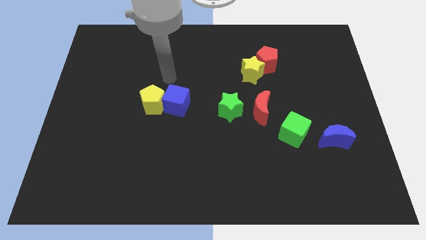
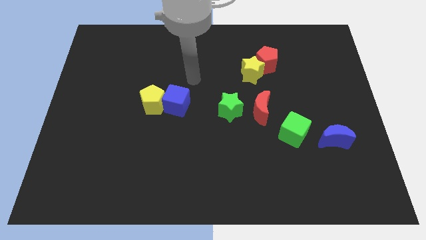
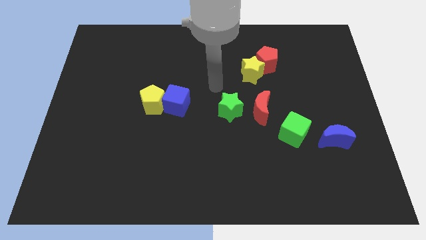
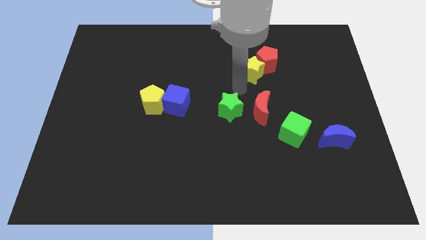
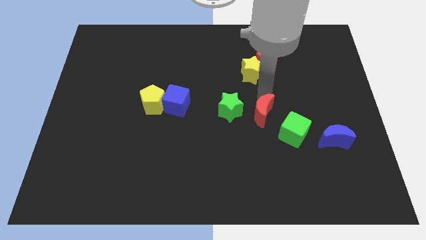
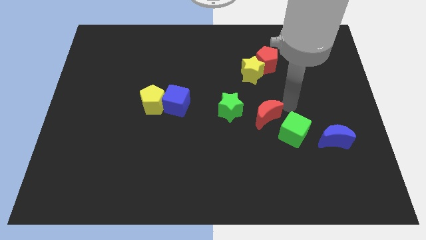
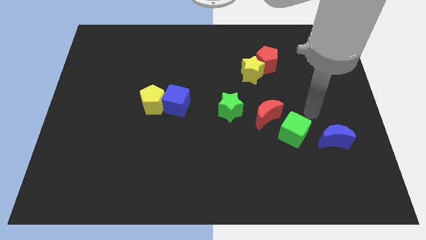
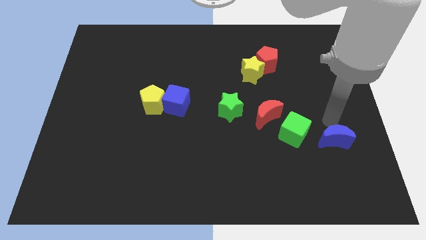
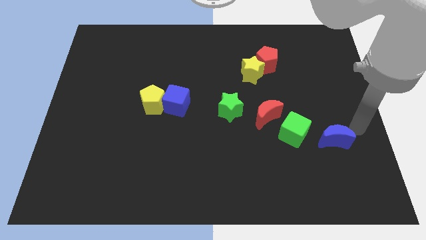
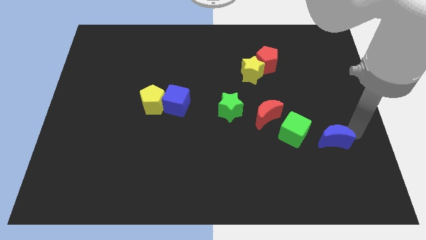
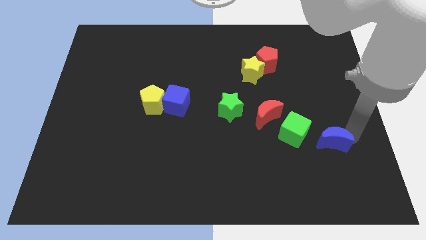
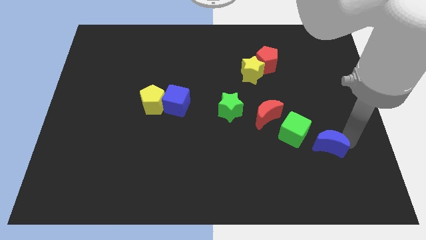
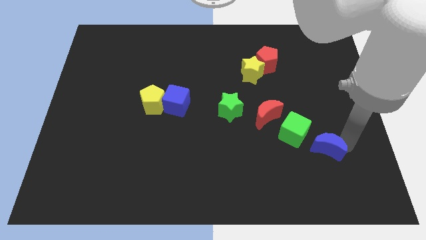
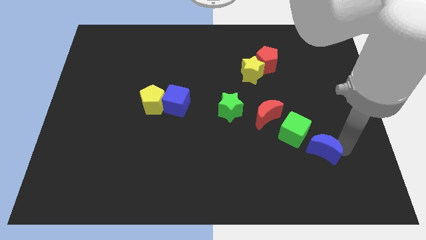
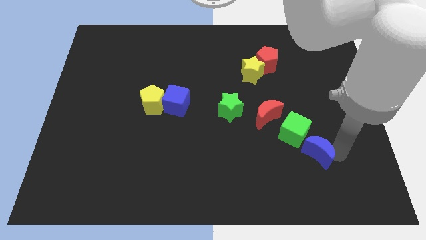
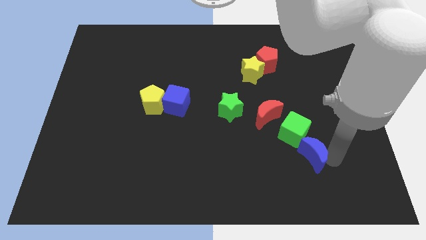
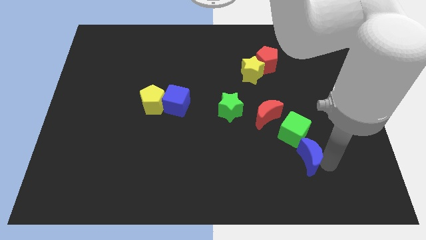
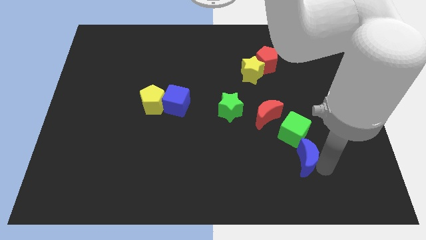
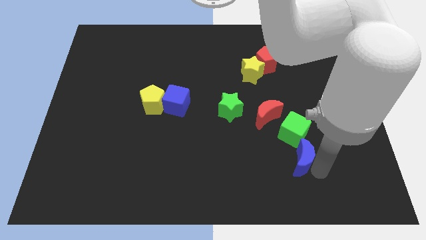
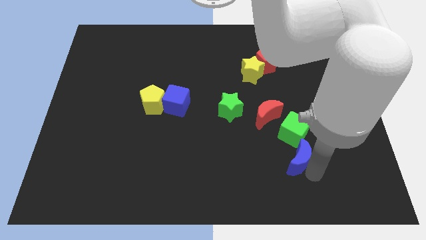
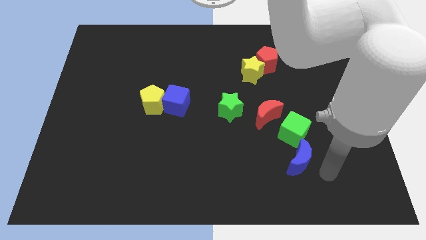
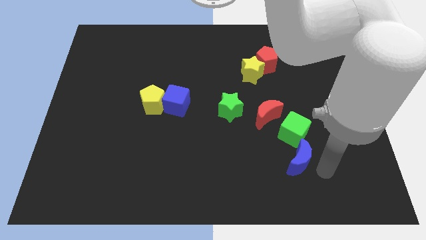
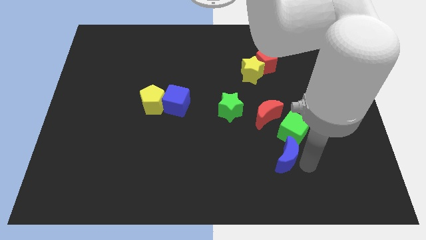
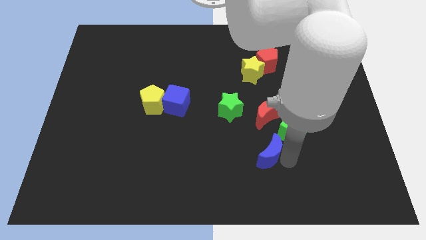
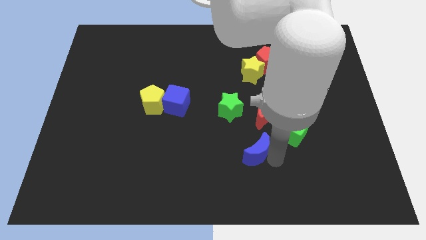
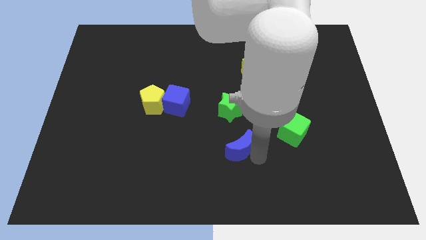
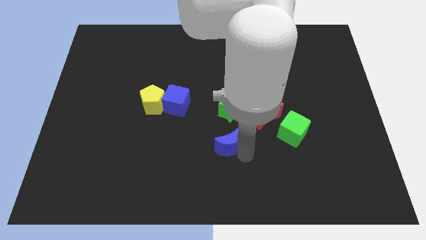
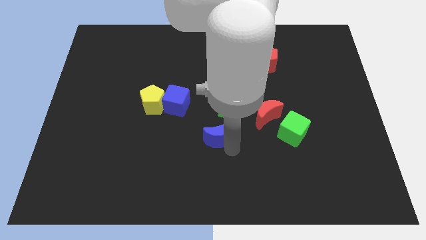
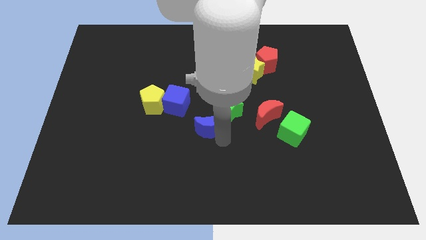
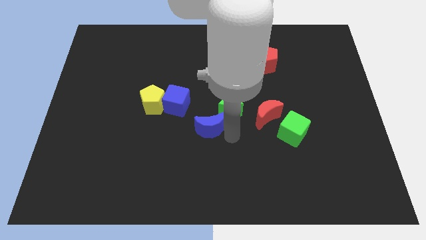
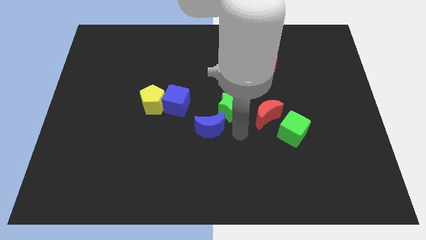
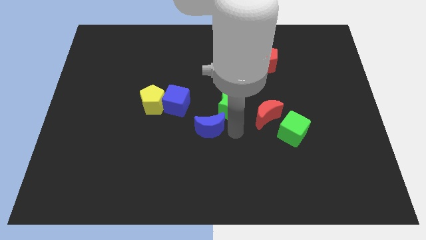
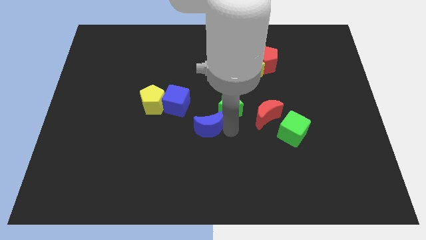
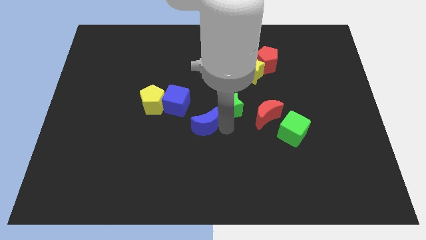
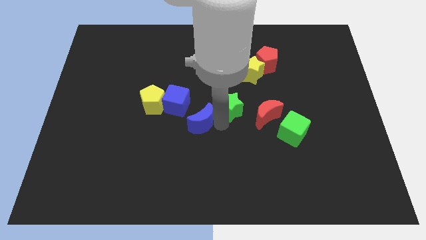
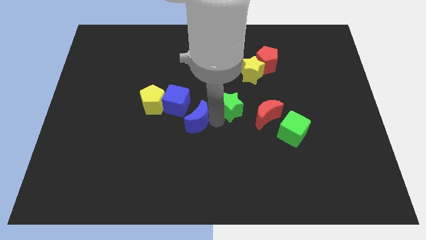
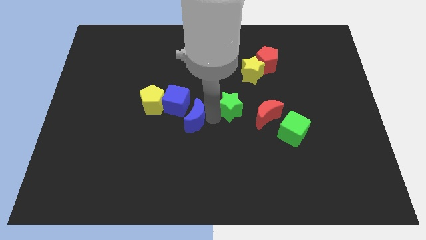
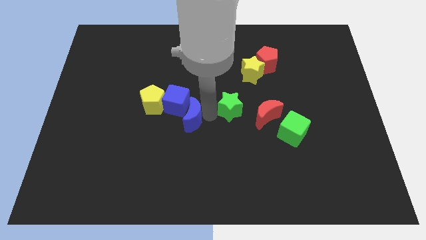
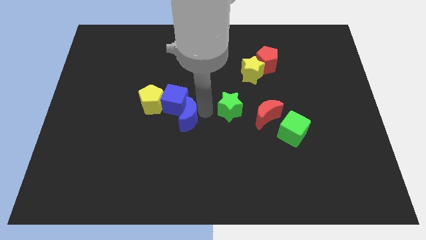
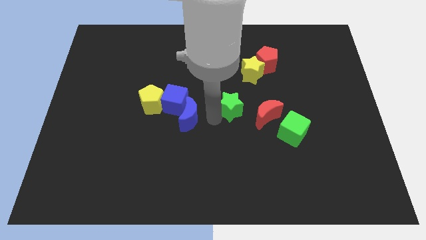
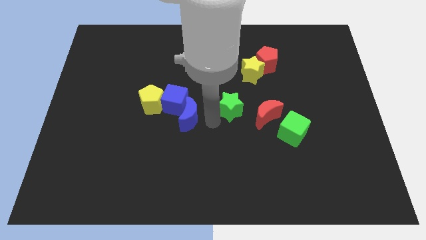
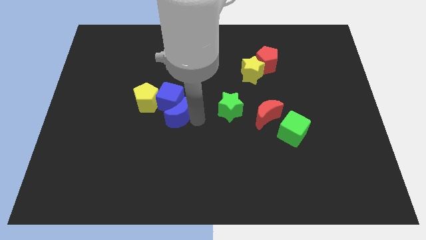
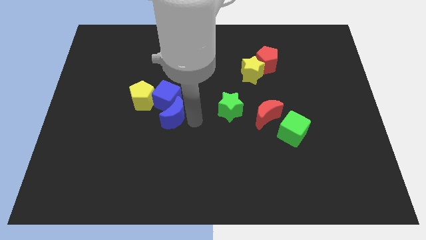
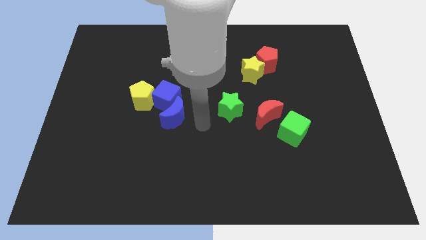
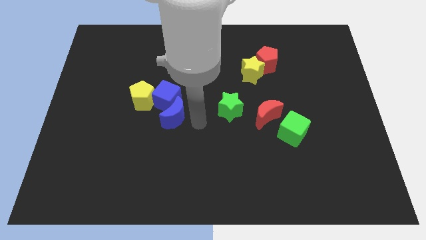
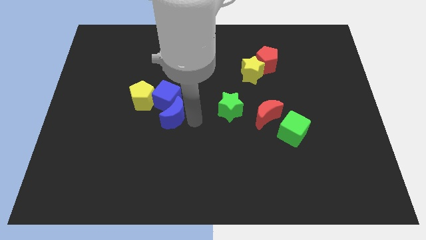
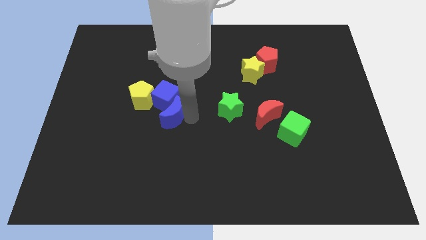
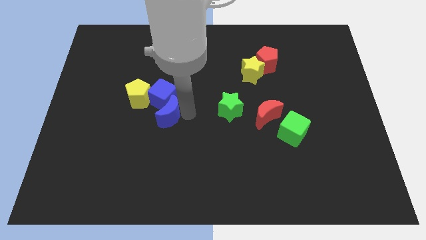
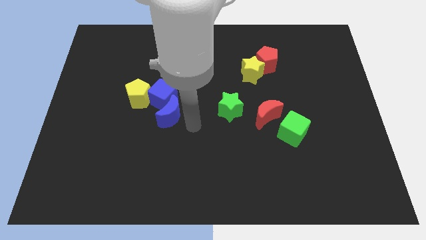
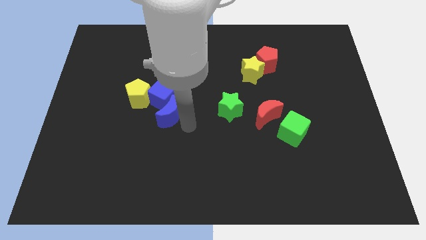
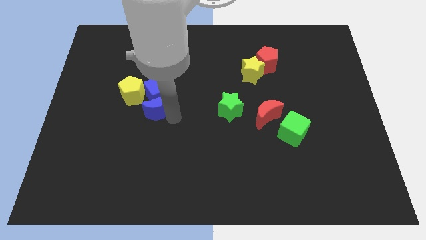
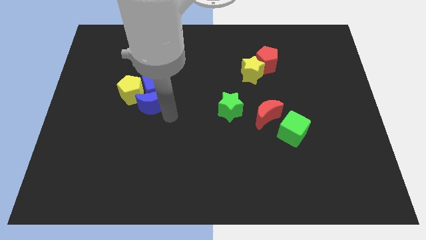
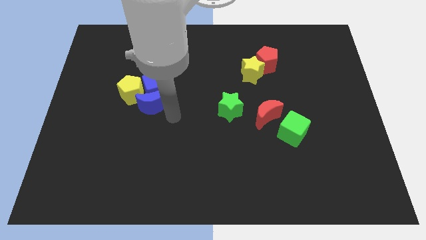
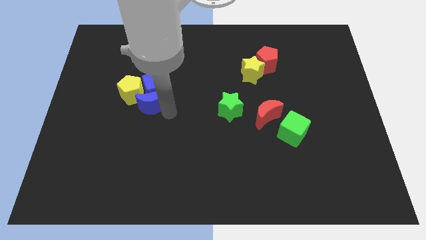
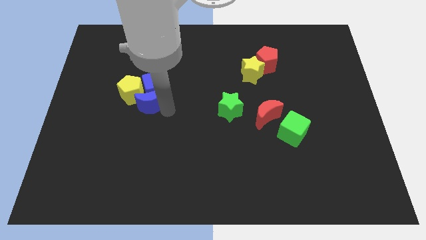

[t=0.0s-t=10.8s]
put the blue moon towards the yellow pentagon

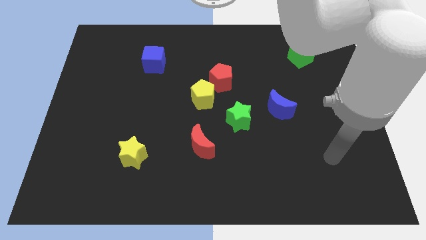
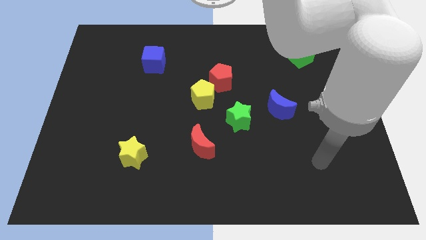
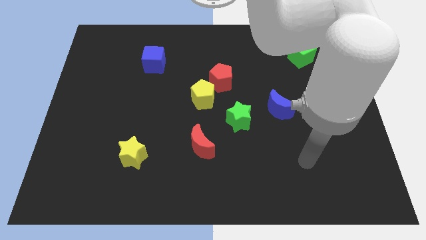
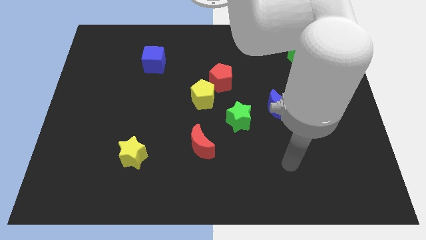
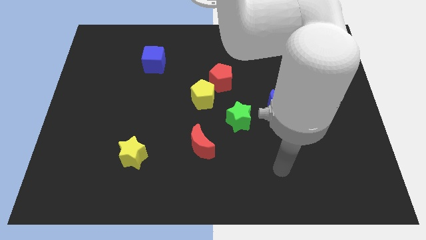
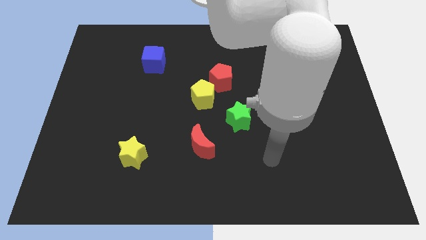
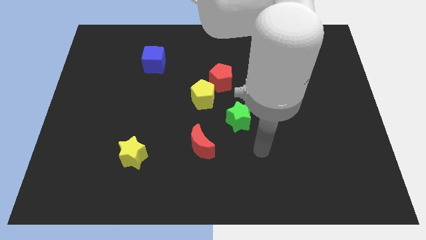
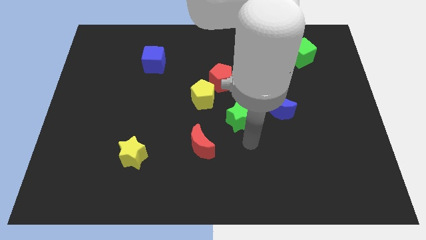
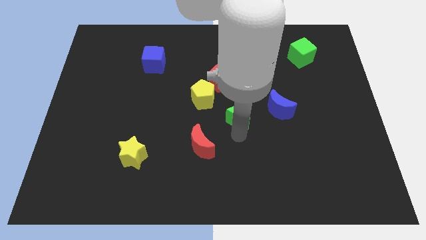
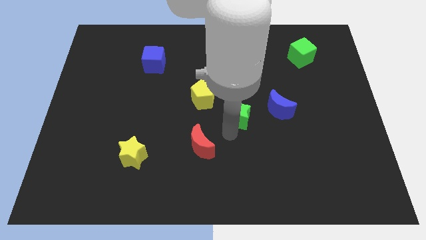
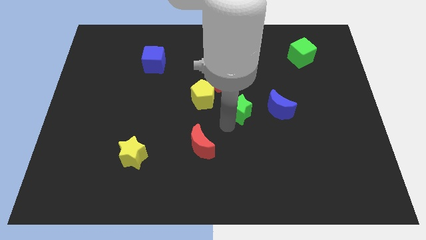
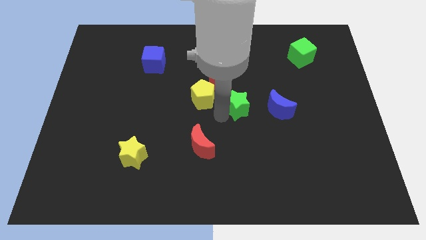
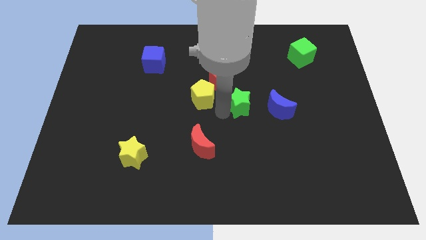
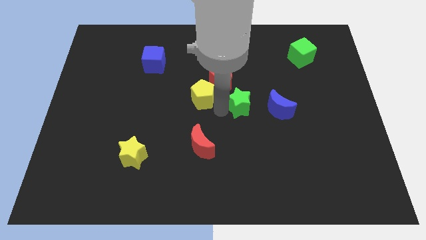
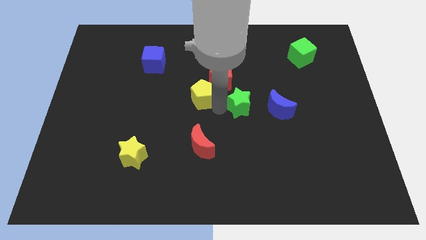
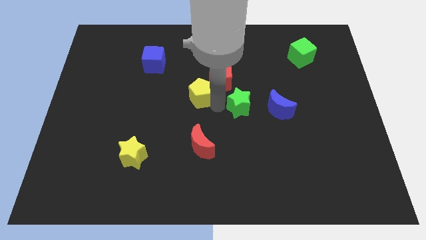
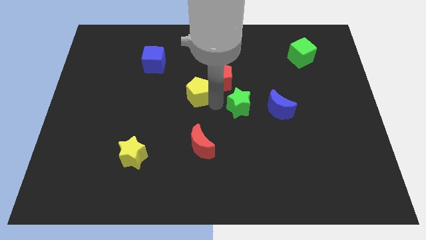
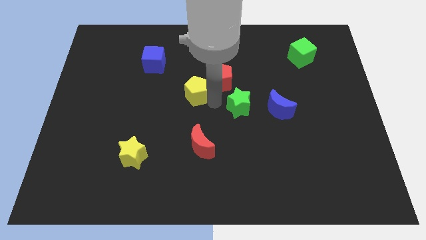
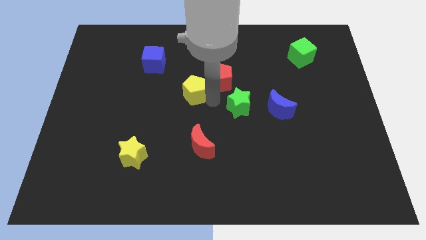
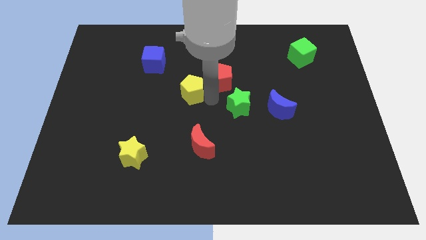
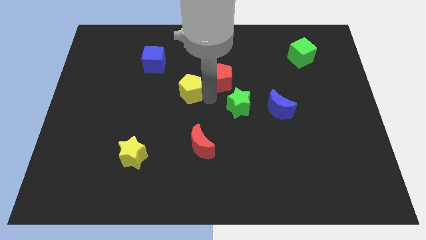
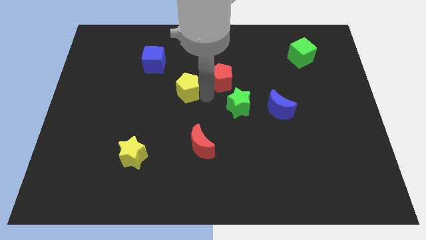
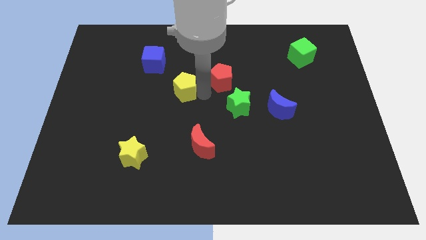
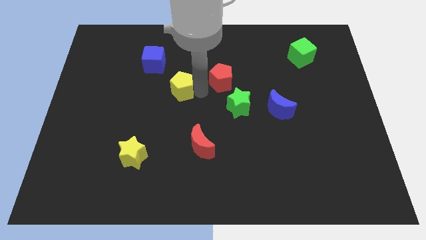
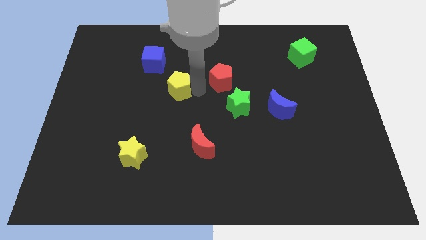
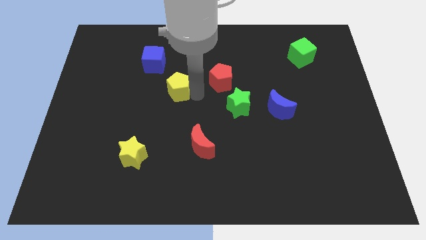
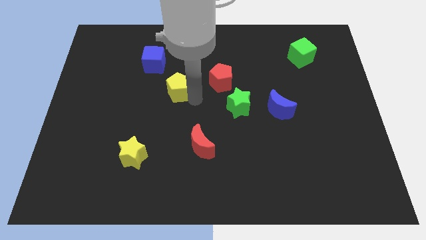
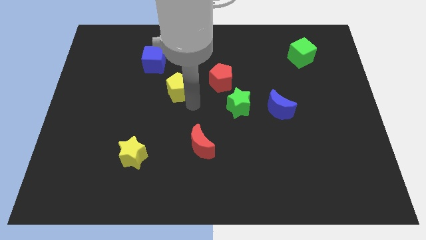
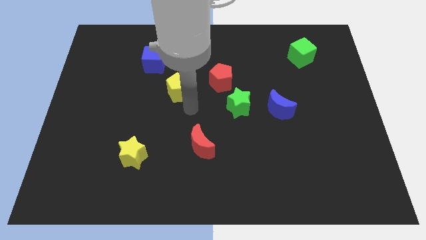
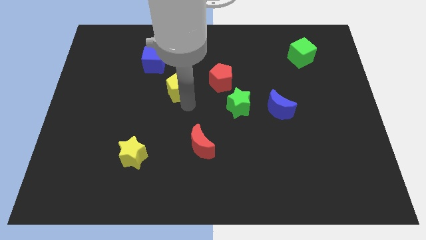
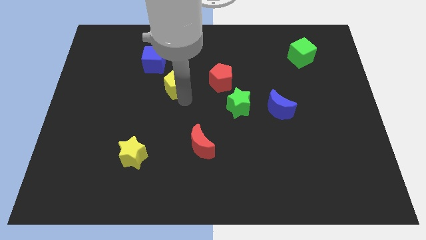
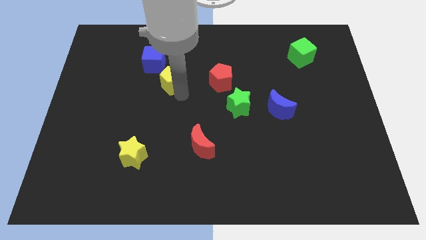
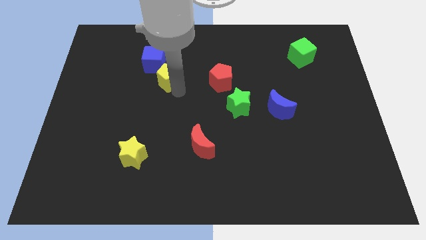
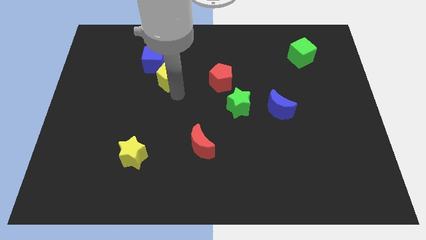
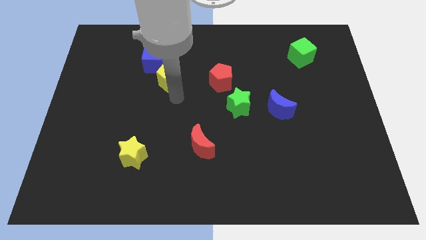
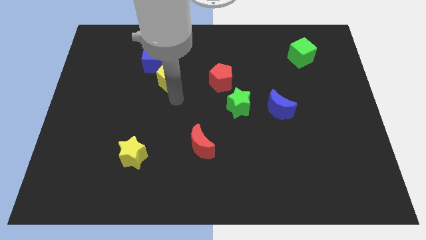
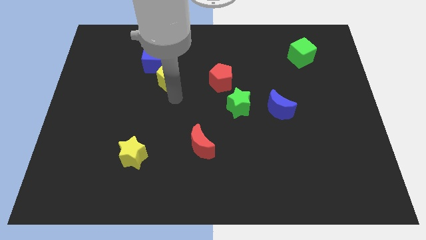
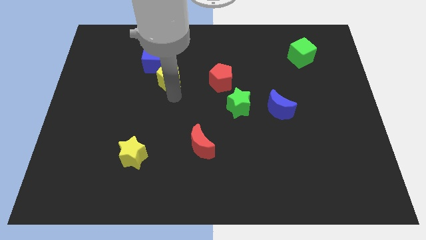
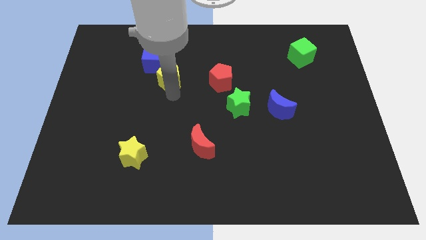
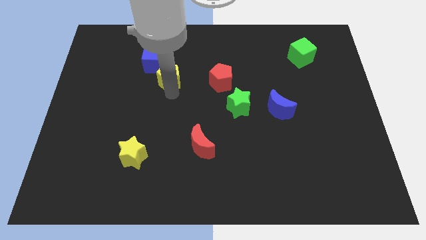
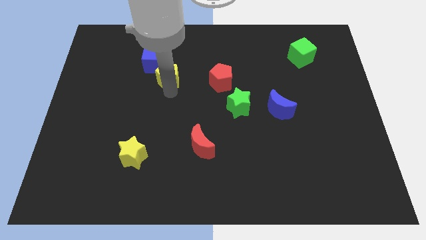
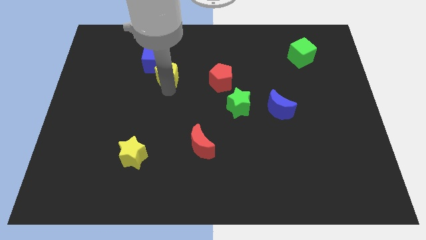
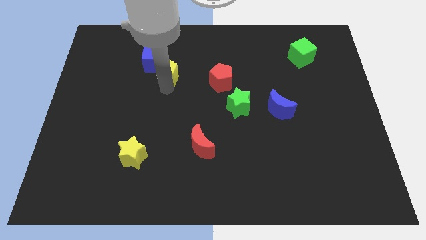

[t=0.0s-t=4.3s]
move the yellow pentagon next to the blue cube
